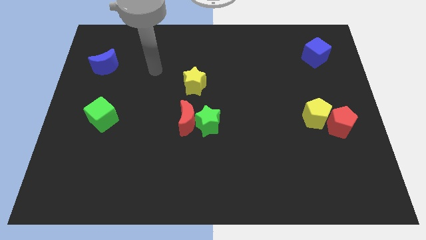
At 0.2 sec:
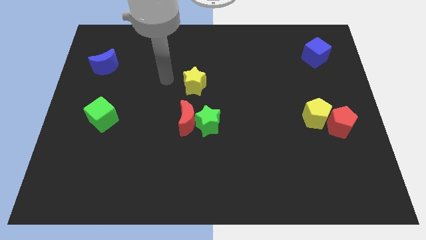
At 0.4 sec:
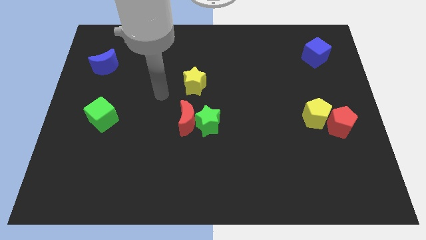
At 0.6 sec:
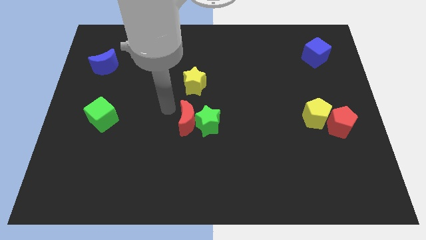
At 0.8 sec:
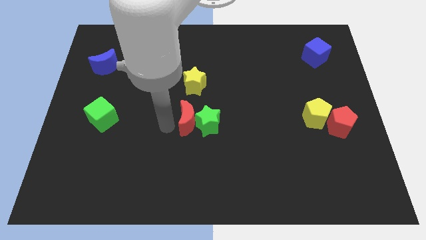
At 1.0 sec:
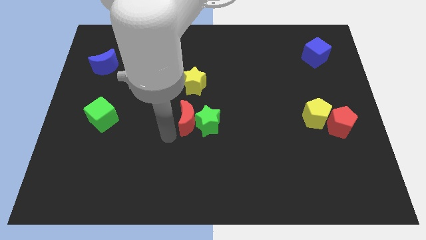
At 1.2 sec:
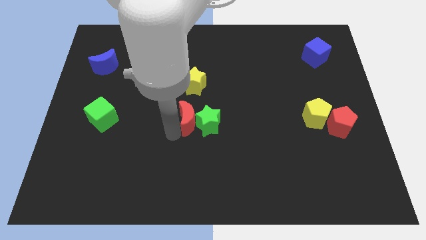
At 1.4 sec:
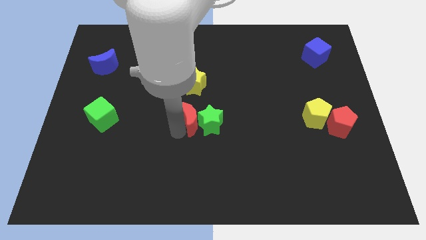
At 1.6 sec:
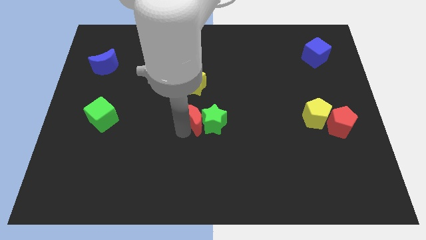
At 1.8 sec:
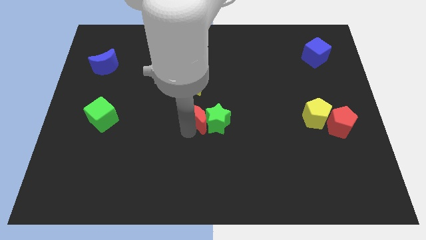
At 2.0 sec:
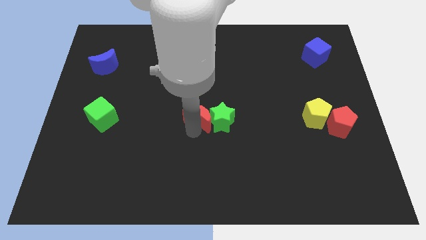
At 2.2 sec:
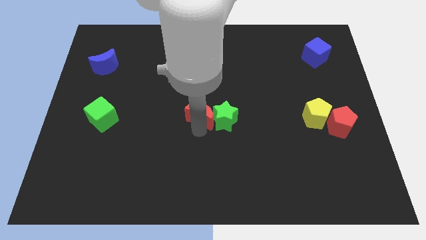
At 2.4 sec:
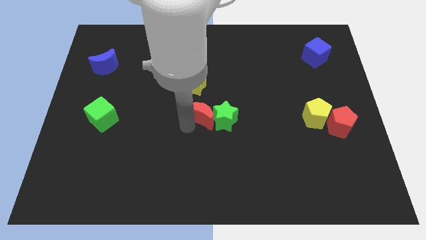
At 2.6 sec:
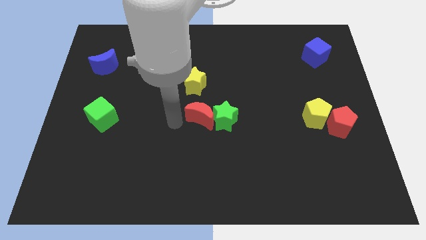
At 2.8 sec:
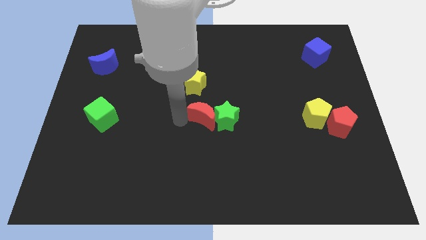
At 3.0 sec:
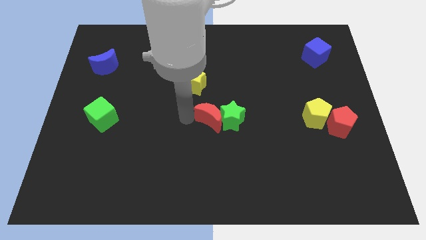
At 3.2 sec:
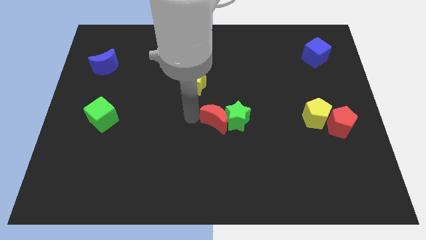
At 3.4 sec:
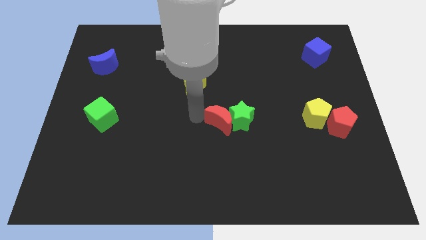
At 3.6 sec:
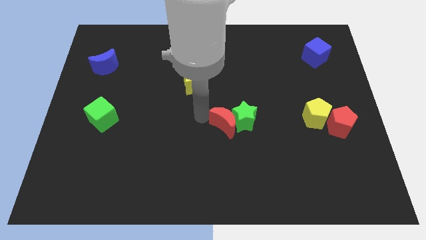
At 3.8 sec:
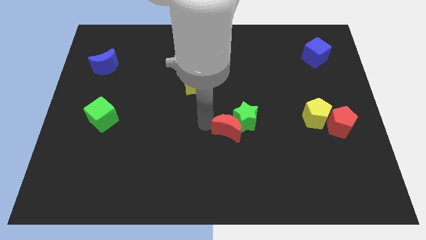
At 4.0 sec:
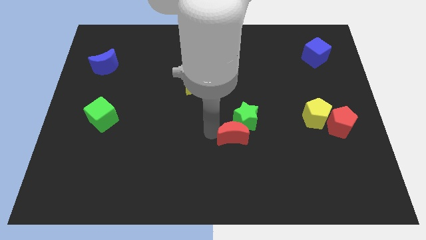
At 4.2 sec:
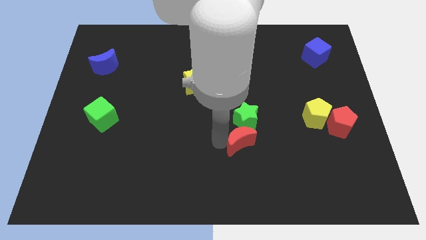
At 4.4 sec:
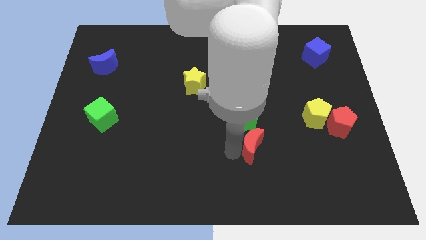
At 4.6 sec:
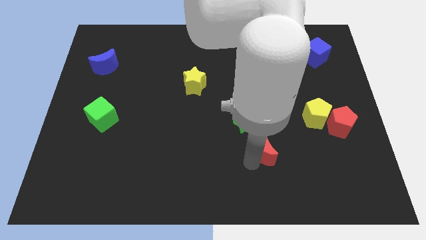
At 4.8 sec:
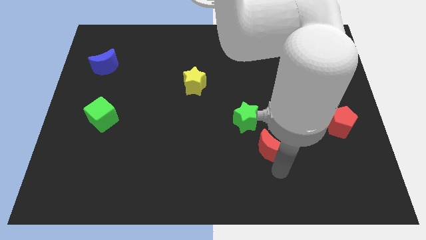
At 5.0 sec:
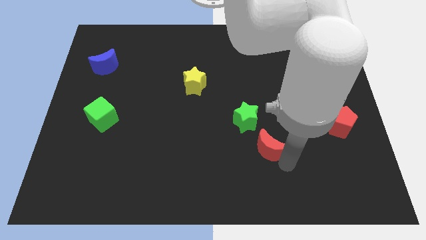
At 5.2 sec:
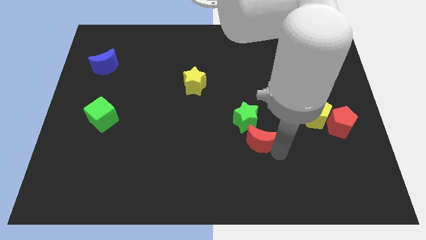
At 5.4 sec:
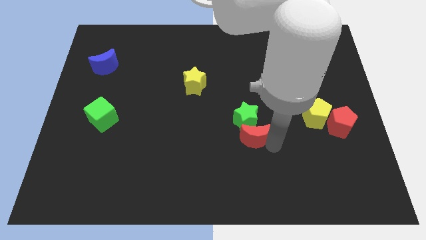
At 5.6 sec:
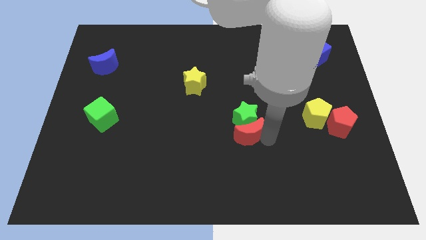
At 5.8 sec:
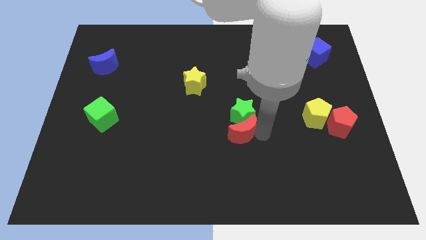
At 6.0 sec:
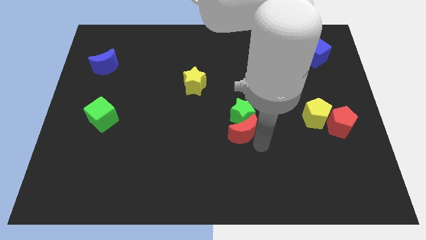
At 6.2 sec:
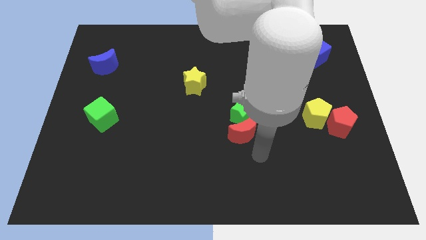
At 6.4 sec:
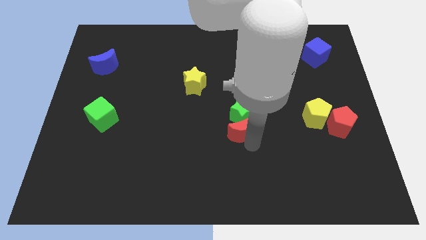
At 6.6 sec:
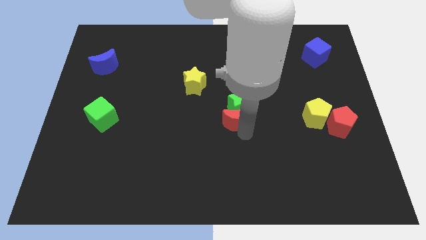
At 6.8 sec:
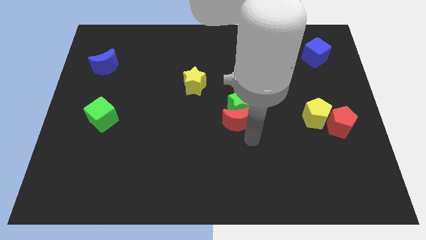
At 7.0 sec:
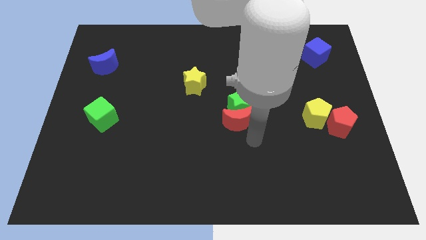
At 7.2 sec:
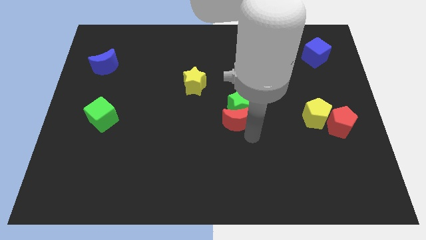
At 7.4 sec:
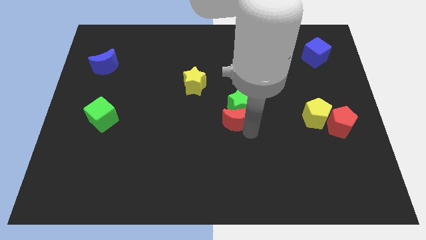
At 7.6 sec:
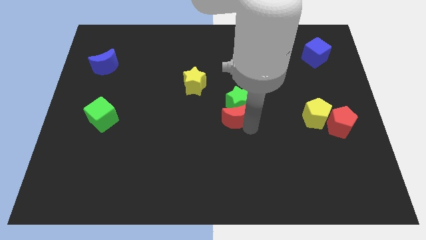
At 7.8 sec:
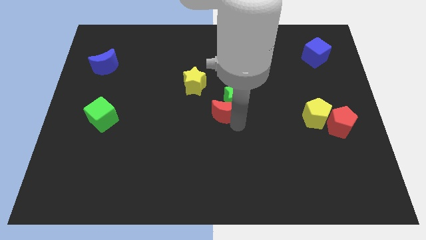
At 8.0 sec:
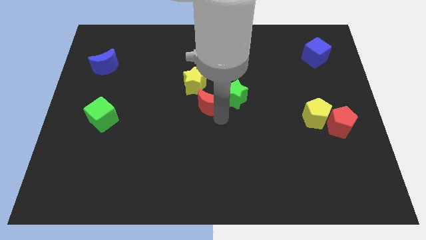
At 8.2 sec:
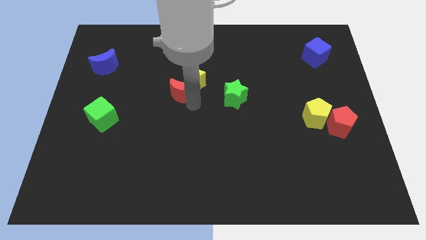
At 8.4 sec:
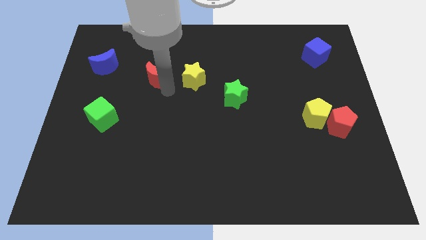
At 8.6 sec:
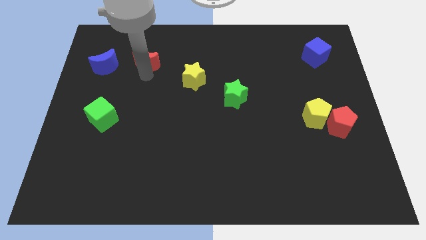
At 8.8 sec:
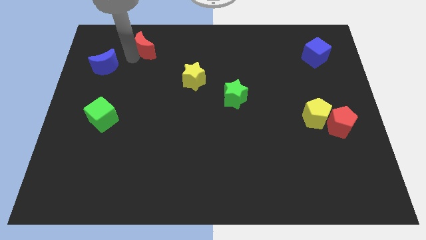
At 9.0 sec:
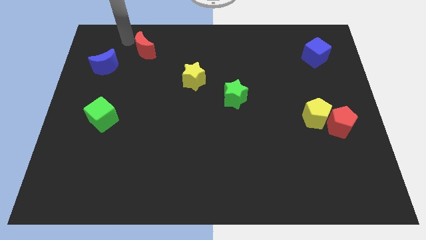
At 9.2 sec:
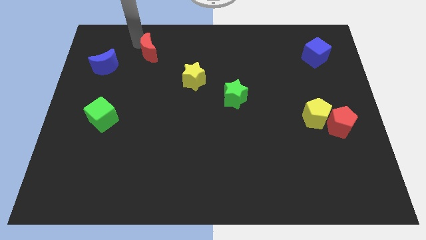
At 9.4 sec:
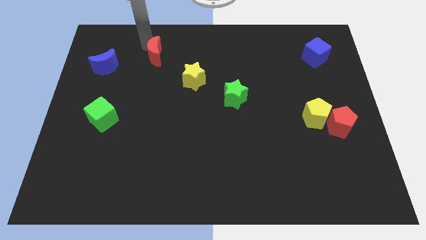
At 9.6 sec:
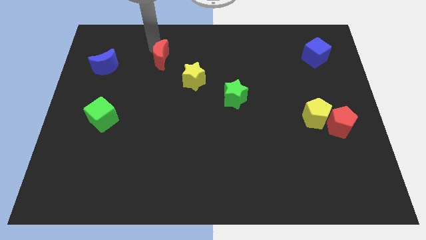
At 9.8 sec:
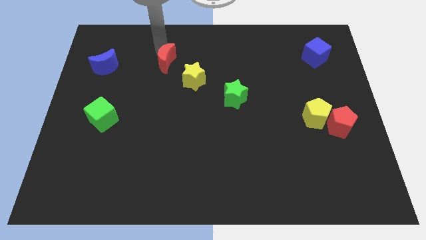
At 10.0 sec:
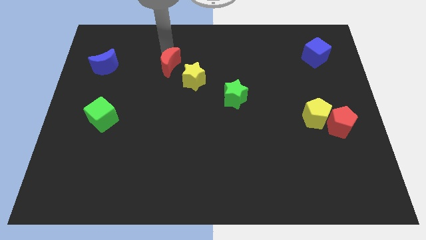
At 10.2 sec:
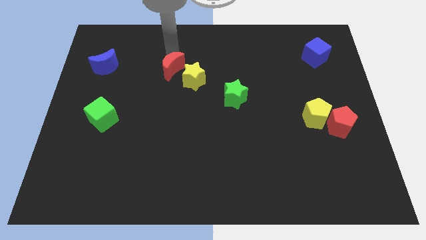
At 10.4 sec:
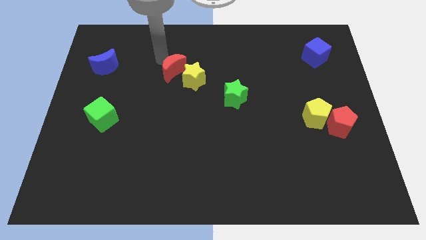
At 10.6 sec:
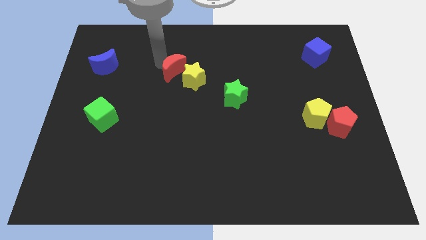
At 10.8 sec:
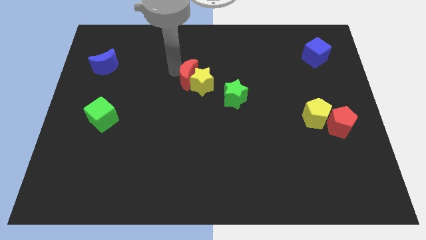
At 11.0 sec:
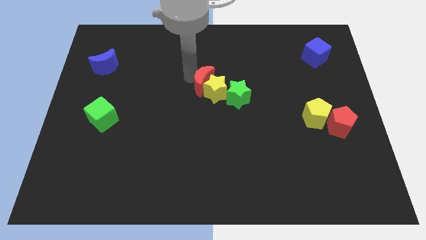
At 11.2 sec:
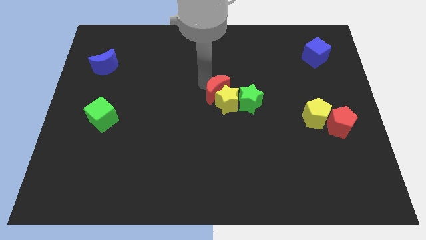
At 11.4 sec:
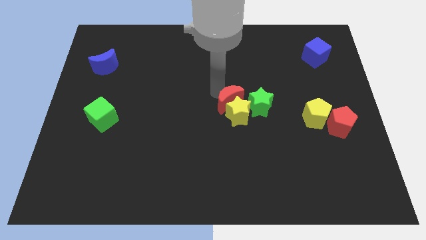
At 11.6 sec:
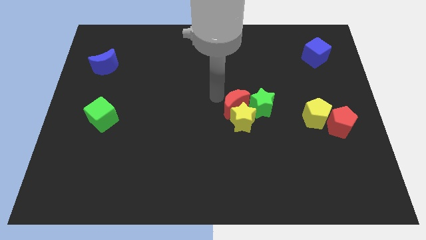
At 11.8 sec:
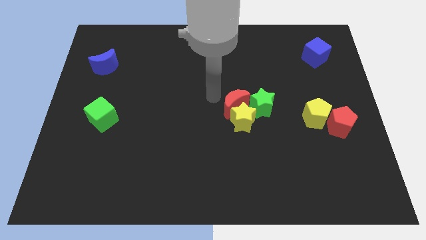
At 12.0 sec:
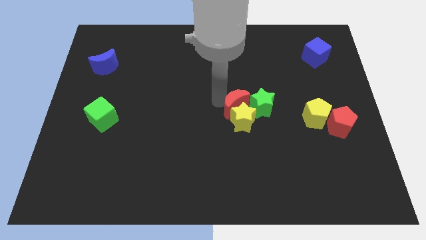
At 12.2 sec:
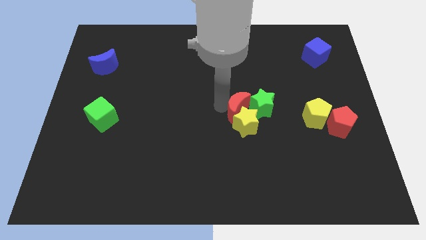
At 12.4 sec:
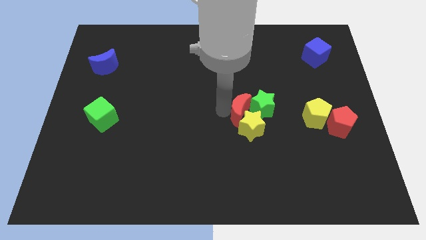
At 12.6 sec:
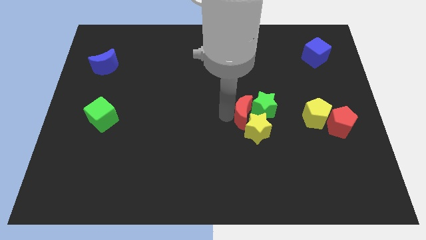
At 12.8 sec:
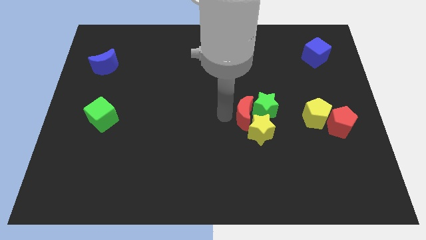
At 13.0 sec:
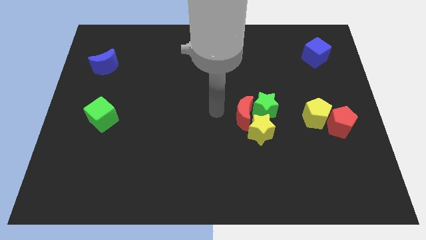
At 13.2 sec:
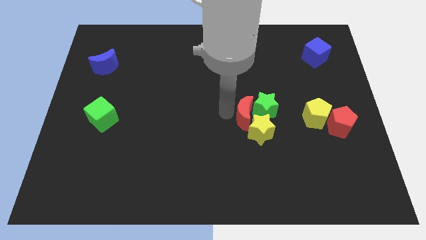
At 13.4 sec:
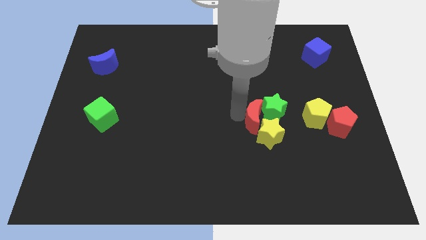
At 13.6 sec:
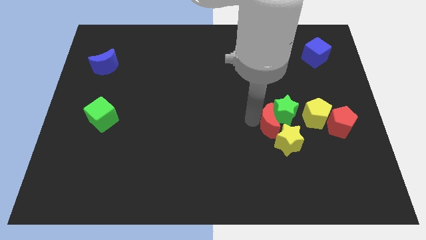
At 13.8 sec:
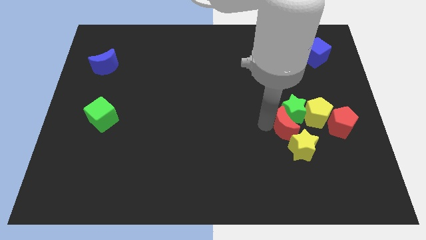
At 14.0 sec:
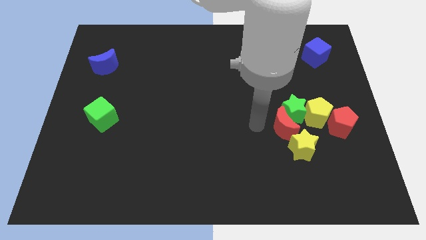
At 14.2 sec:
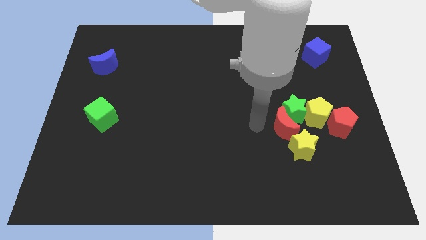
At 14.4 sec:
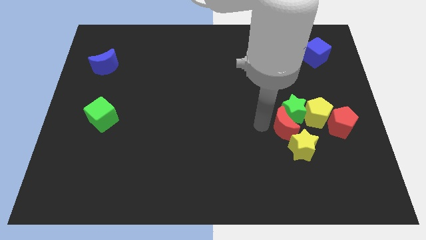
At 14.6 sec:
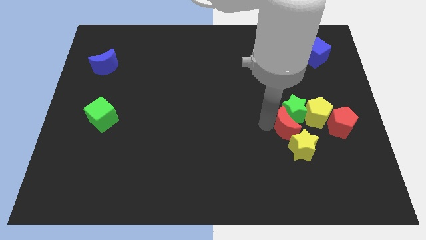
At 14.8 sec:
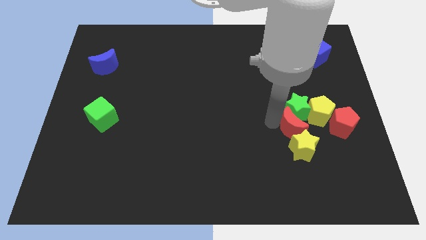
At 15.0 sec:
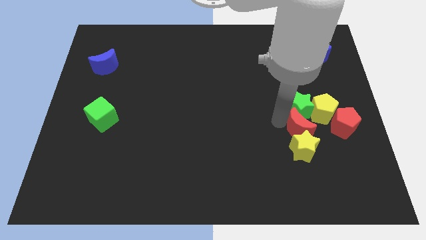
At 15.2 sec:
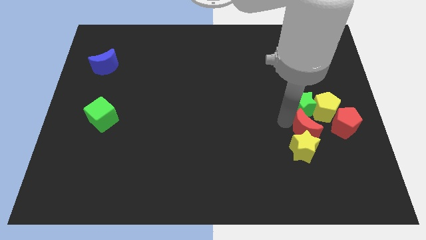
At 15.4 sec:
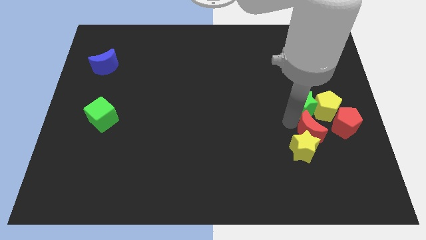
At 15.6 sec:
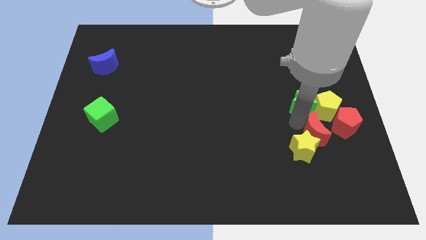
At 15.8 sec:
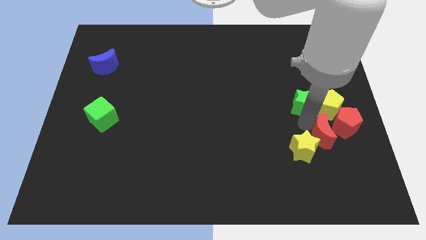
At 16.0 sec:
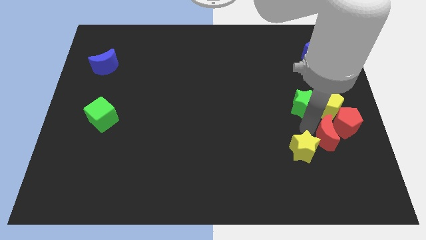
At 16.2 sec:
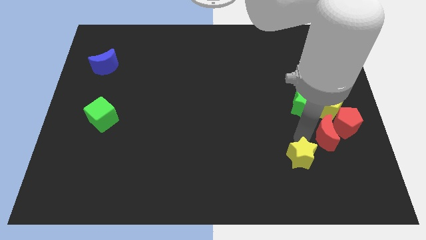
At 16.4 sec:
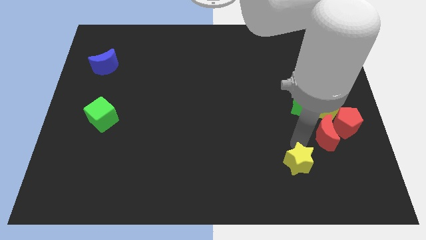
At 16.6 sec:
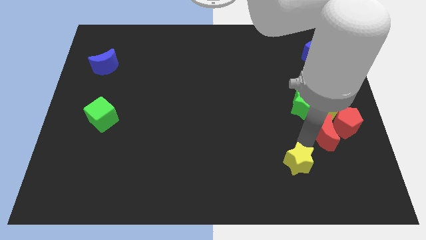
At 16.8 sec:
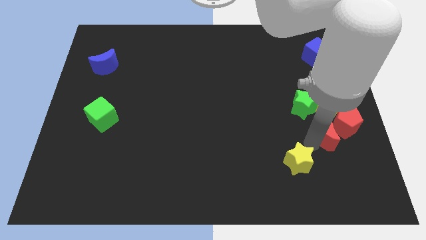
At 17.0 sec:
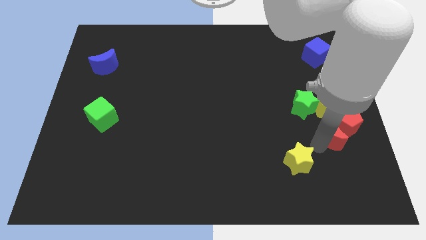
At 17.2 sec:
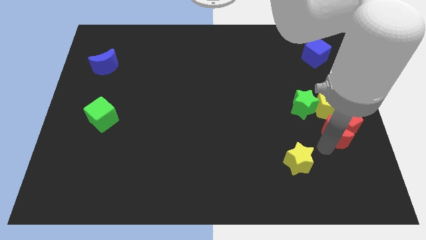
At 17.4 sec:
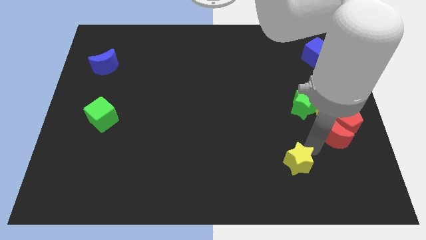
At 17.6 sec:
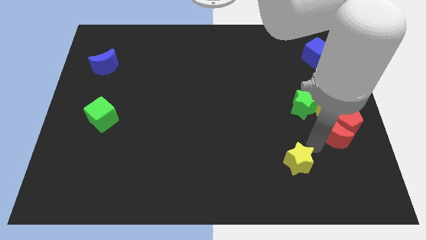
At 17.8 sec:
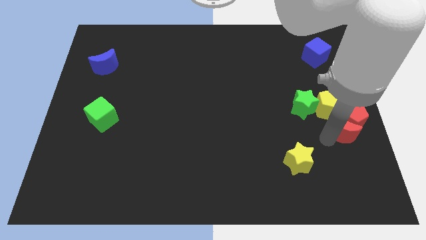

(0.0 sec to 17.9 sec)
slide the red moon to the bottom right side of the yellow pentagon
